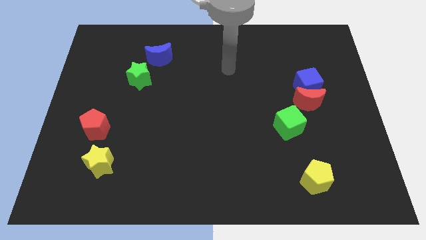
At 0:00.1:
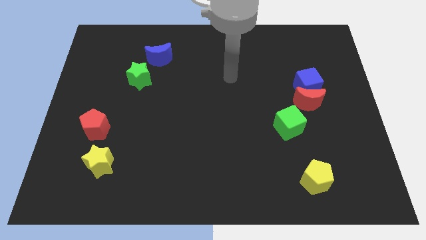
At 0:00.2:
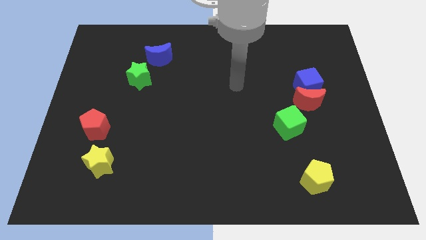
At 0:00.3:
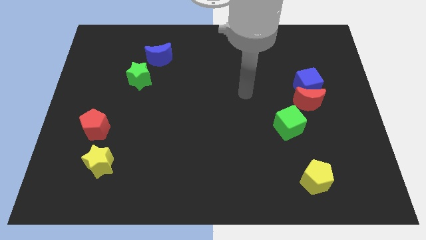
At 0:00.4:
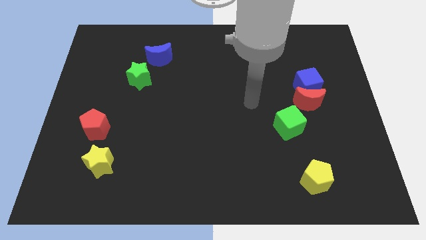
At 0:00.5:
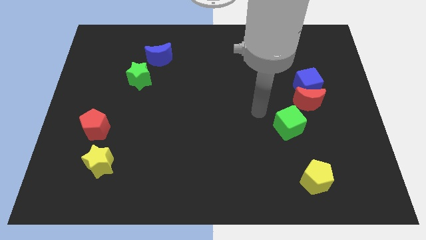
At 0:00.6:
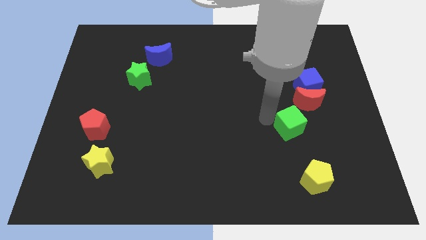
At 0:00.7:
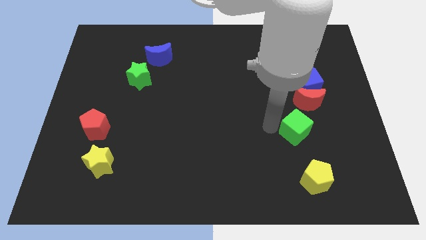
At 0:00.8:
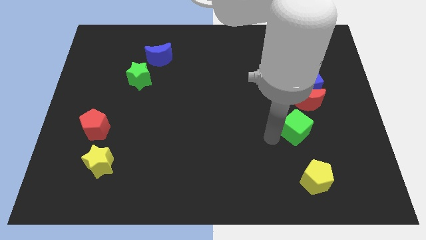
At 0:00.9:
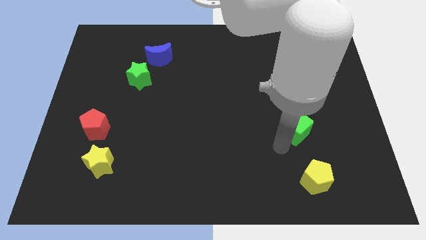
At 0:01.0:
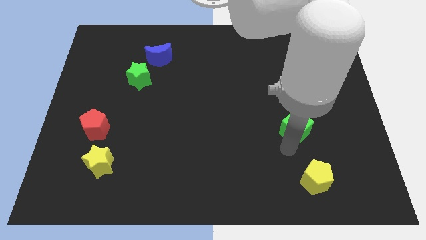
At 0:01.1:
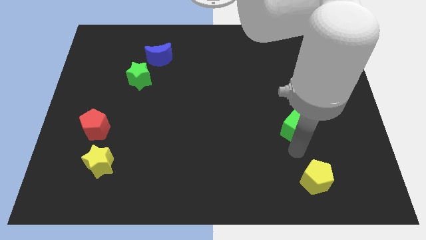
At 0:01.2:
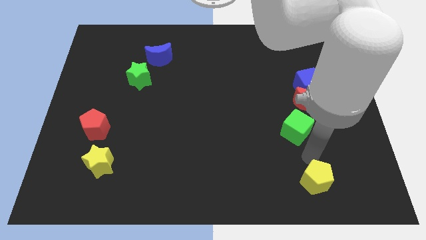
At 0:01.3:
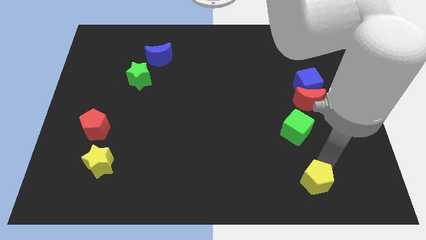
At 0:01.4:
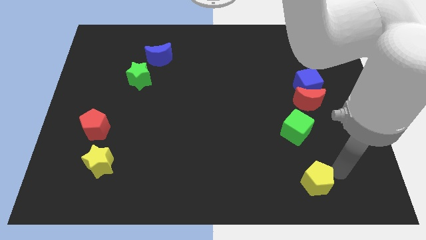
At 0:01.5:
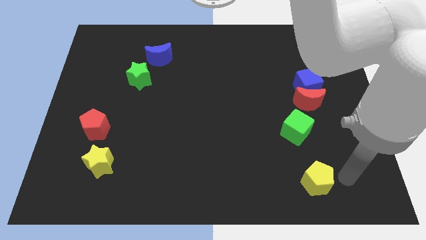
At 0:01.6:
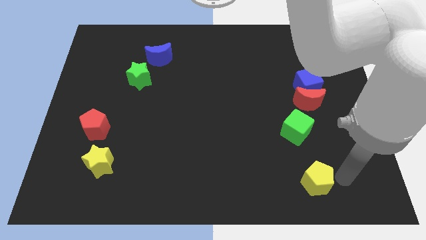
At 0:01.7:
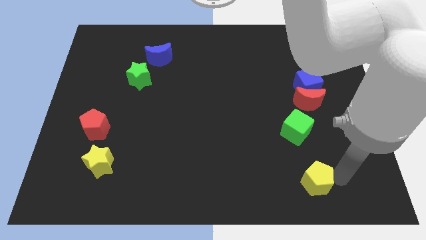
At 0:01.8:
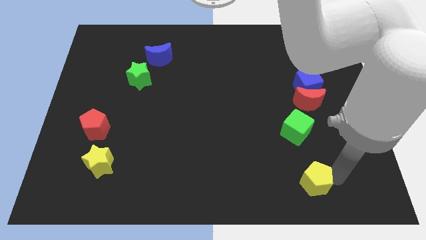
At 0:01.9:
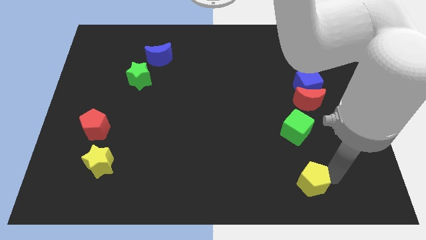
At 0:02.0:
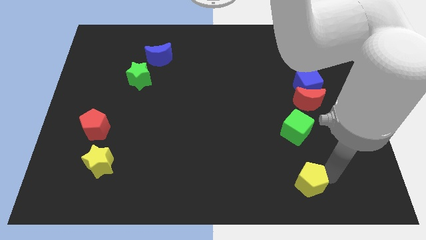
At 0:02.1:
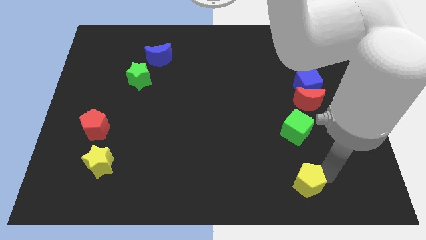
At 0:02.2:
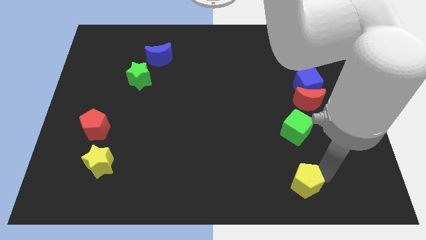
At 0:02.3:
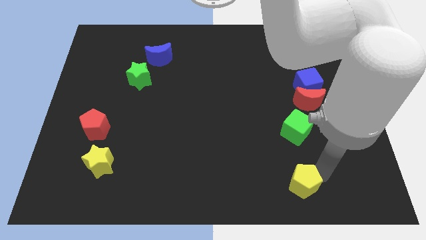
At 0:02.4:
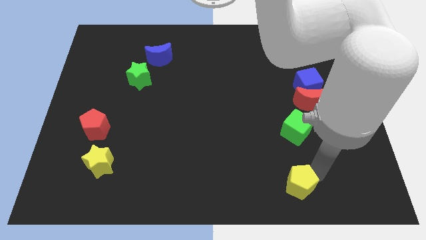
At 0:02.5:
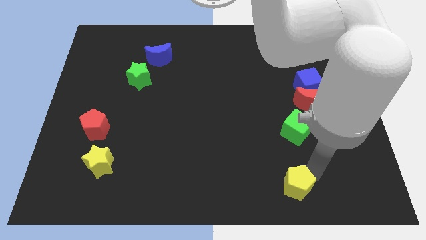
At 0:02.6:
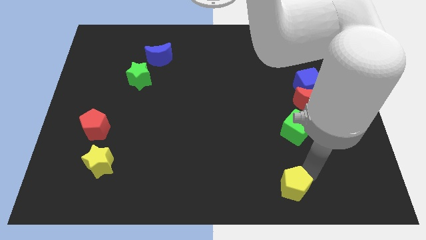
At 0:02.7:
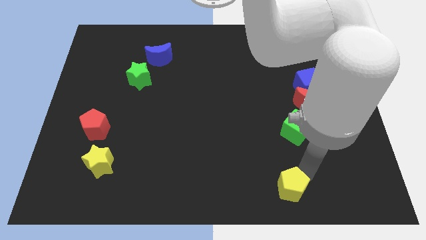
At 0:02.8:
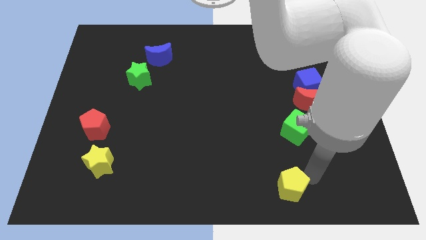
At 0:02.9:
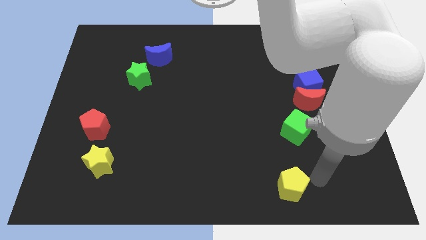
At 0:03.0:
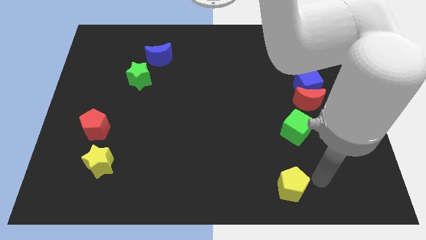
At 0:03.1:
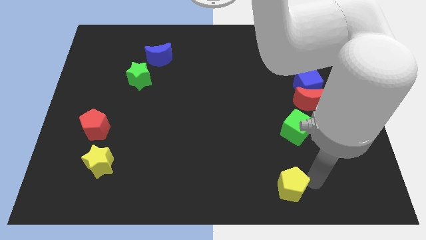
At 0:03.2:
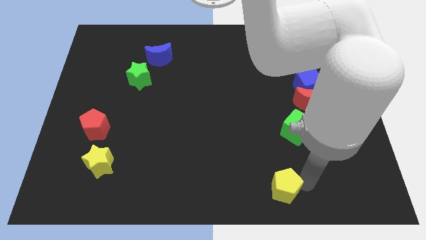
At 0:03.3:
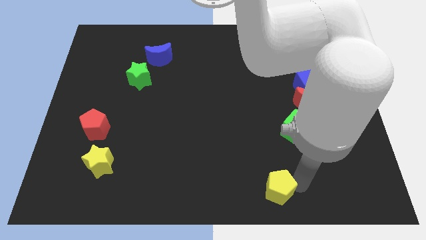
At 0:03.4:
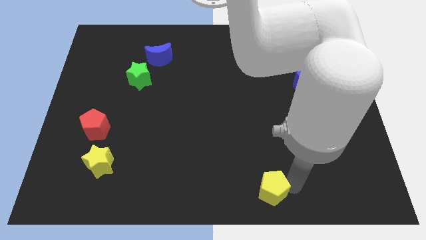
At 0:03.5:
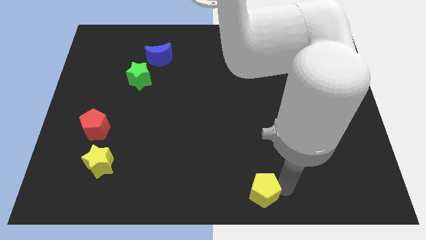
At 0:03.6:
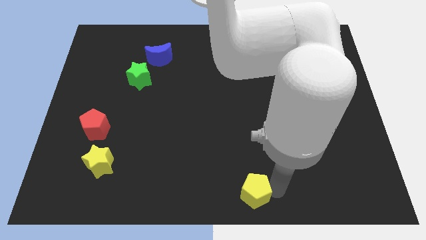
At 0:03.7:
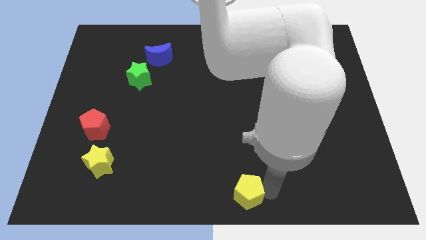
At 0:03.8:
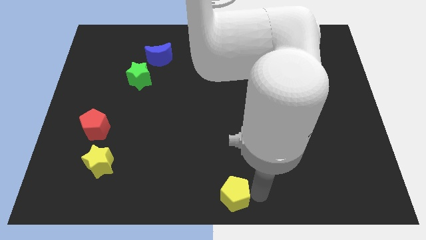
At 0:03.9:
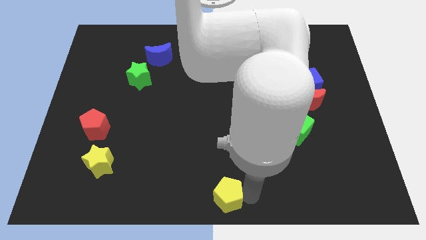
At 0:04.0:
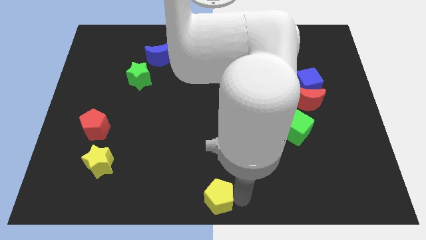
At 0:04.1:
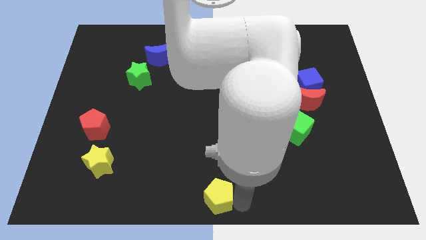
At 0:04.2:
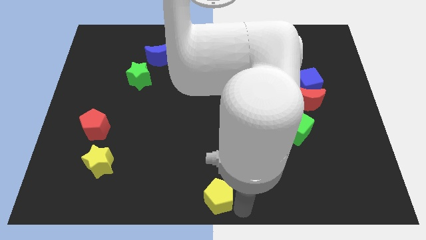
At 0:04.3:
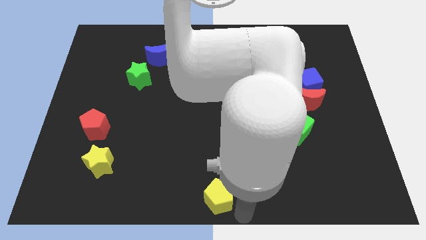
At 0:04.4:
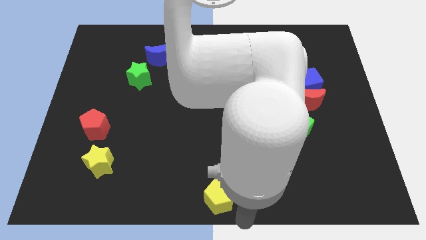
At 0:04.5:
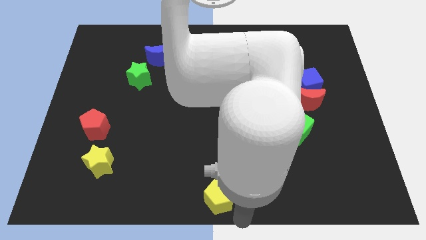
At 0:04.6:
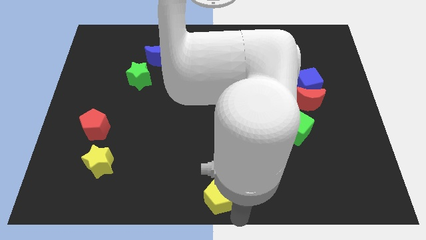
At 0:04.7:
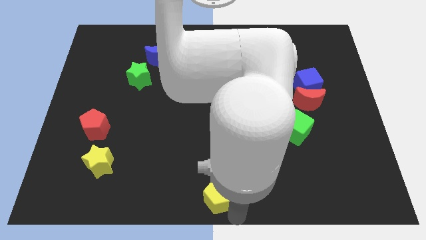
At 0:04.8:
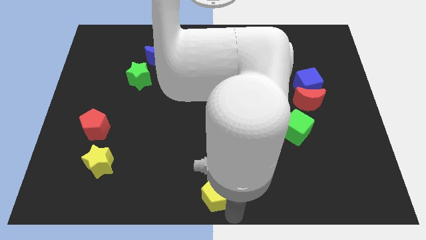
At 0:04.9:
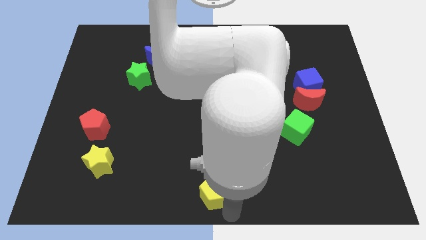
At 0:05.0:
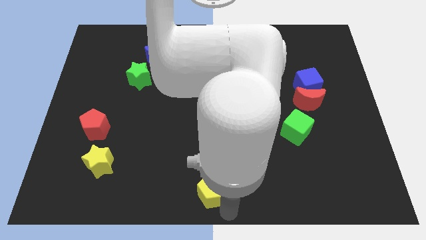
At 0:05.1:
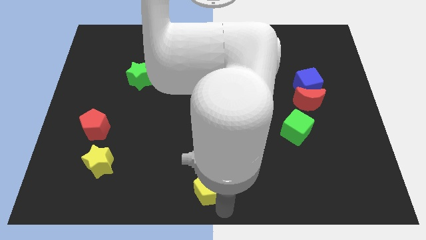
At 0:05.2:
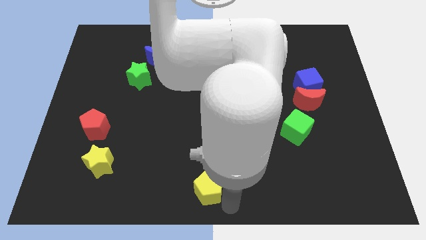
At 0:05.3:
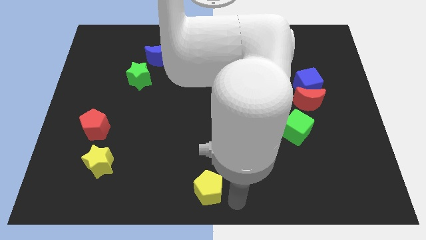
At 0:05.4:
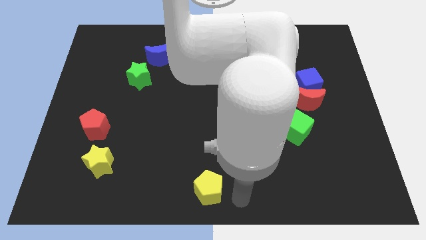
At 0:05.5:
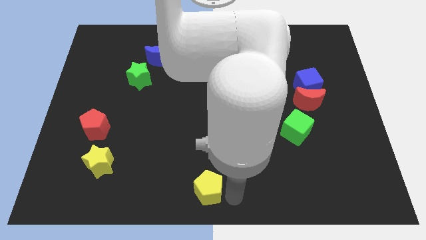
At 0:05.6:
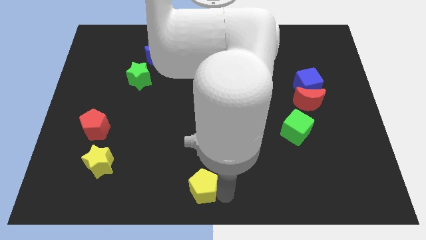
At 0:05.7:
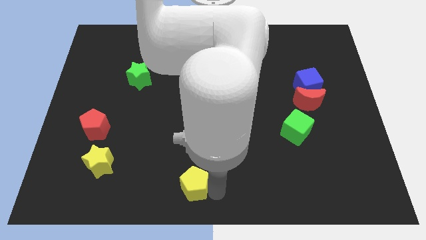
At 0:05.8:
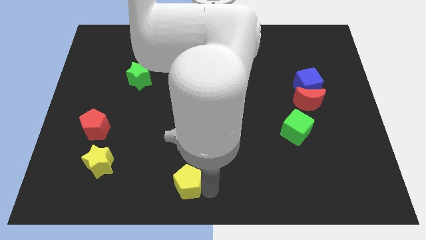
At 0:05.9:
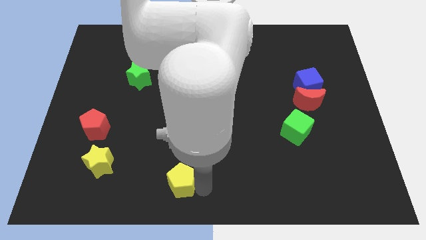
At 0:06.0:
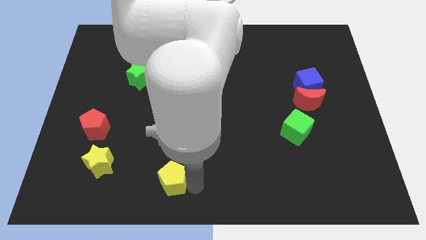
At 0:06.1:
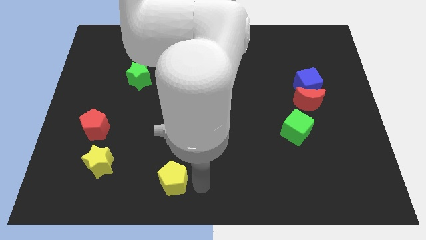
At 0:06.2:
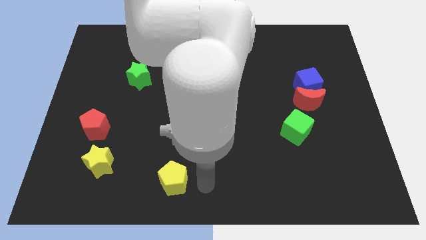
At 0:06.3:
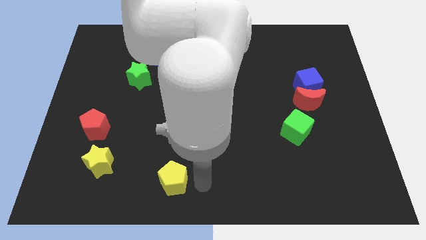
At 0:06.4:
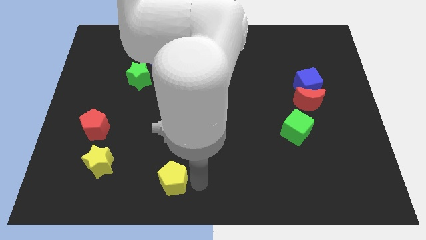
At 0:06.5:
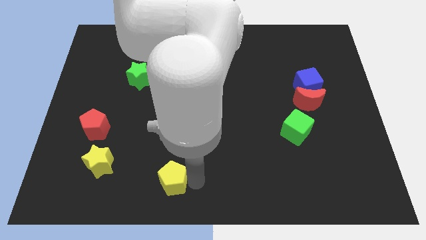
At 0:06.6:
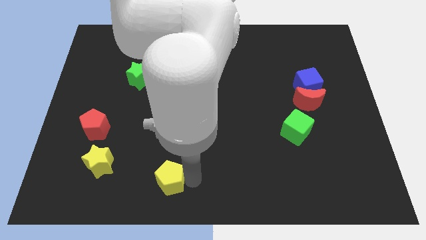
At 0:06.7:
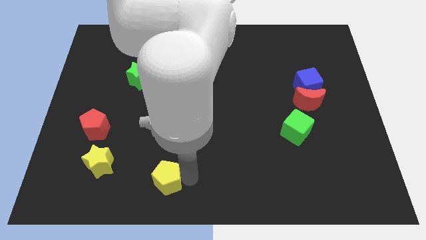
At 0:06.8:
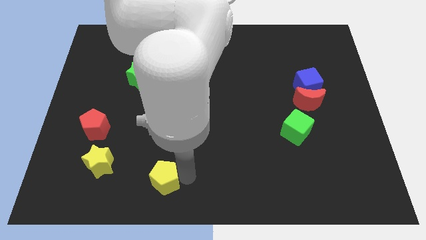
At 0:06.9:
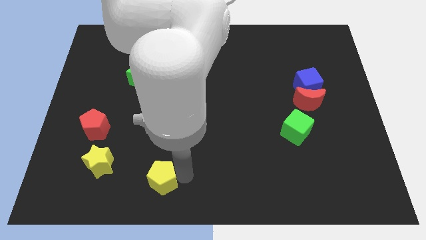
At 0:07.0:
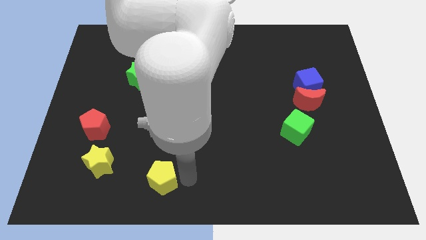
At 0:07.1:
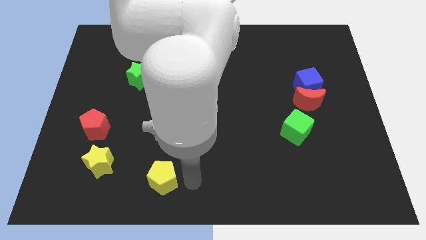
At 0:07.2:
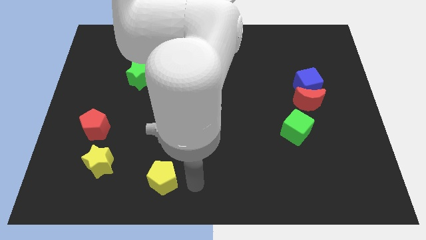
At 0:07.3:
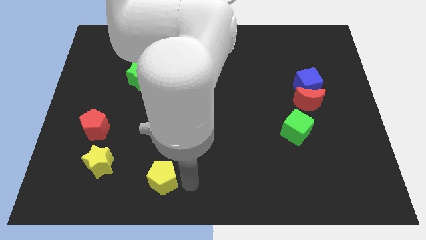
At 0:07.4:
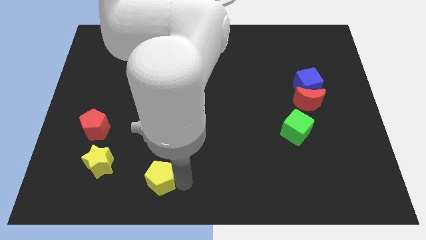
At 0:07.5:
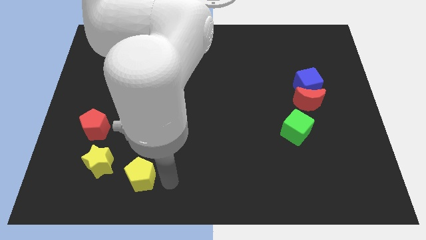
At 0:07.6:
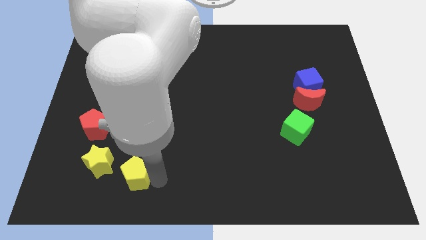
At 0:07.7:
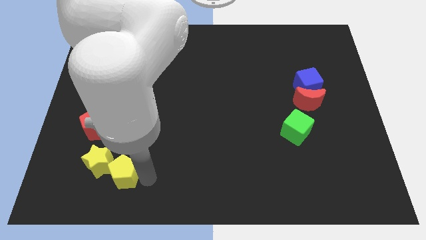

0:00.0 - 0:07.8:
slide the yellow pentagon next to the yellow star

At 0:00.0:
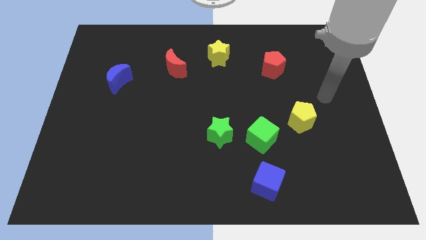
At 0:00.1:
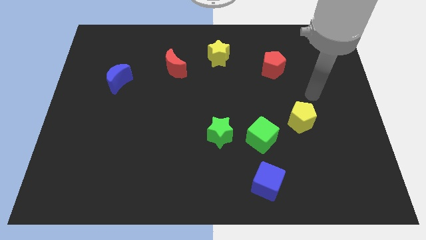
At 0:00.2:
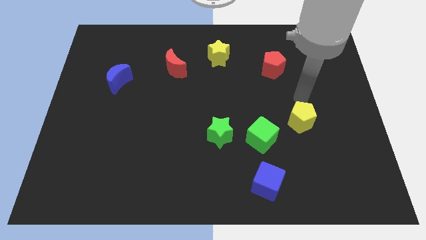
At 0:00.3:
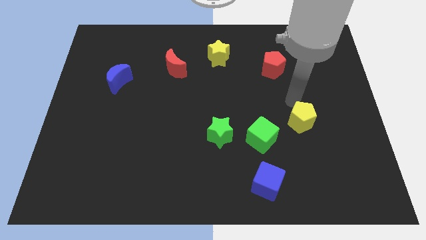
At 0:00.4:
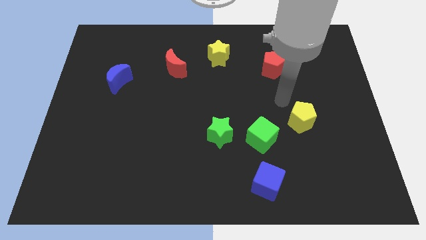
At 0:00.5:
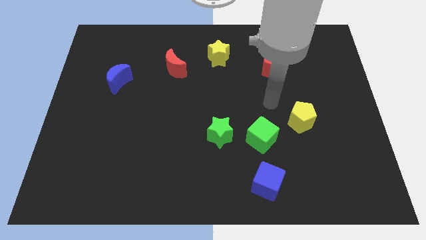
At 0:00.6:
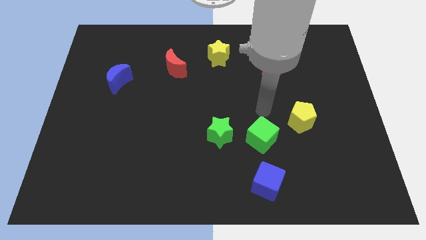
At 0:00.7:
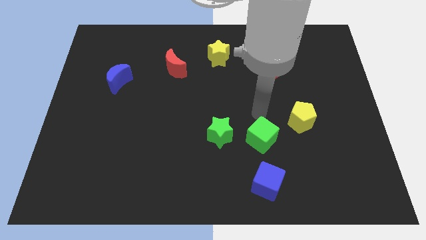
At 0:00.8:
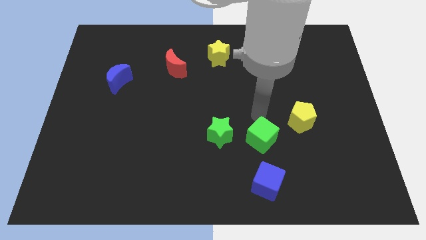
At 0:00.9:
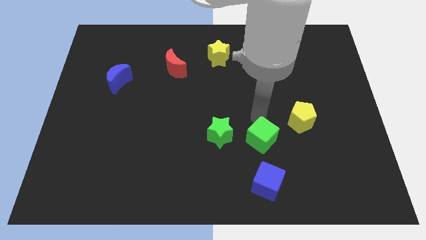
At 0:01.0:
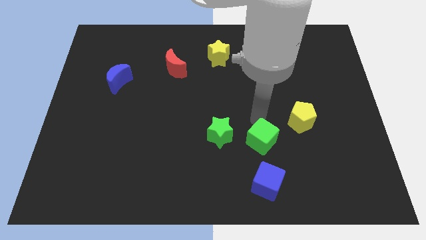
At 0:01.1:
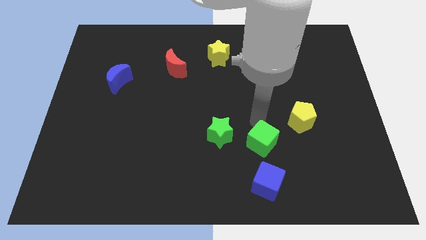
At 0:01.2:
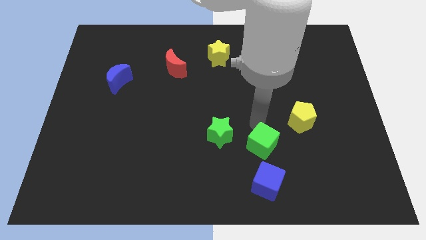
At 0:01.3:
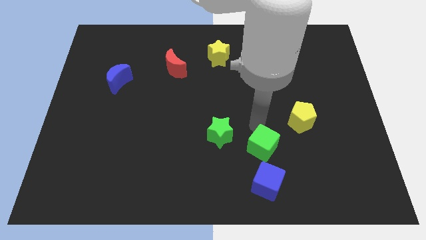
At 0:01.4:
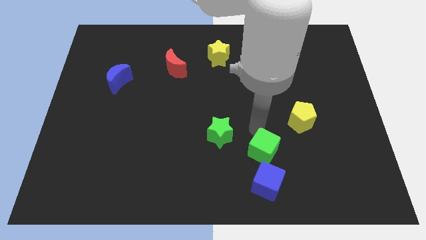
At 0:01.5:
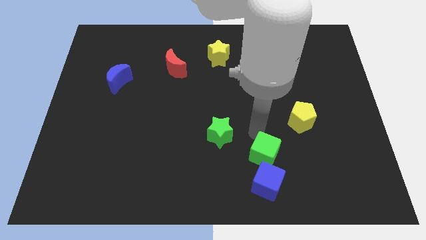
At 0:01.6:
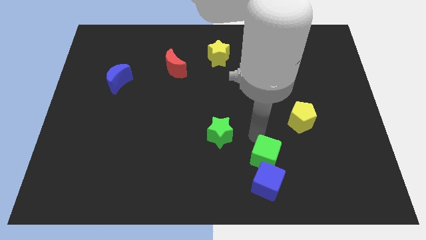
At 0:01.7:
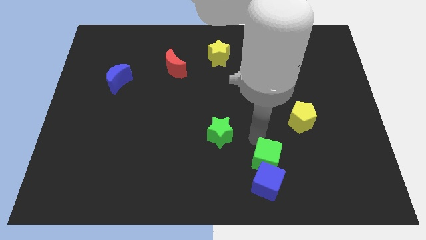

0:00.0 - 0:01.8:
push the green cube towards the blue cube
